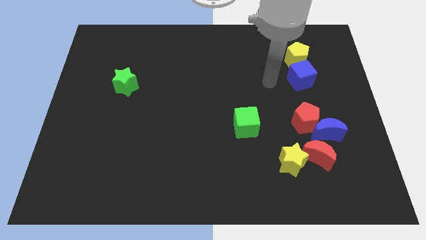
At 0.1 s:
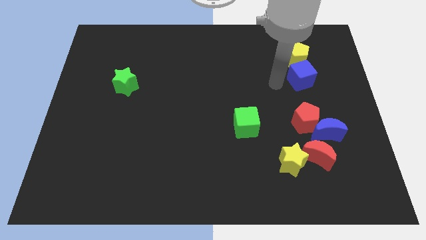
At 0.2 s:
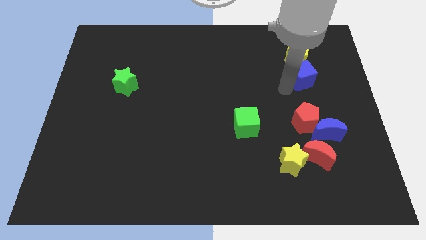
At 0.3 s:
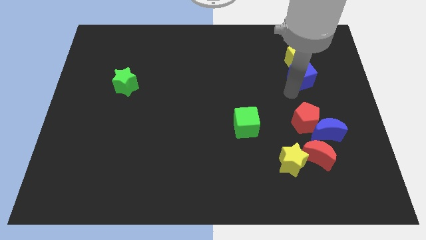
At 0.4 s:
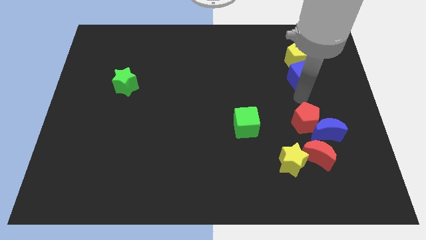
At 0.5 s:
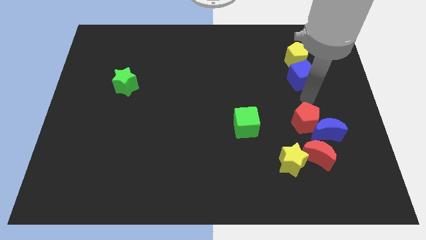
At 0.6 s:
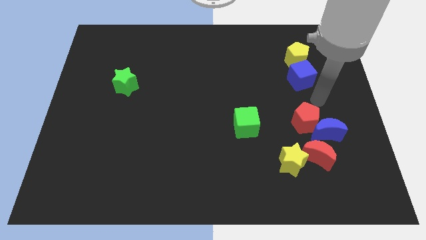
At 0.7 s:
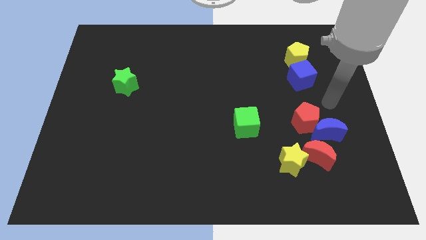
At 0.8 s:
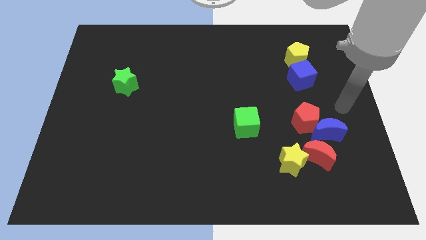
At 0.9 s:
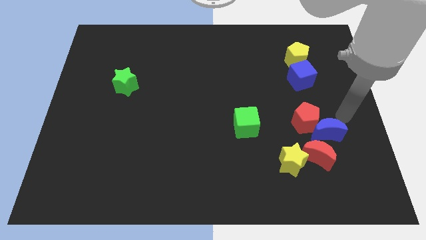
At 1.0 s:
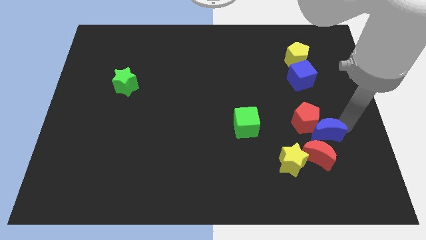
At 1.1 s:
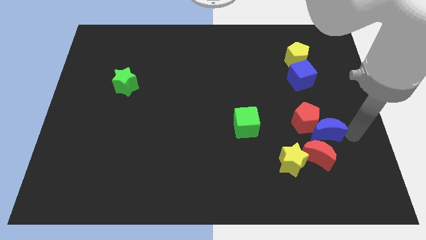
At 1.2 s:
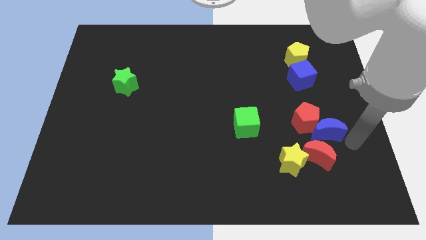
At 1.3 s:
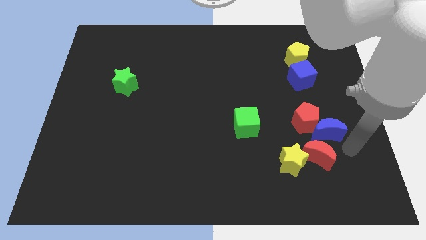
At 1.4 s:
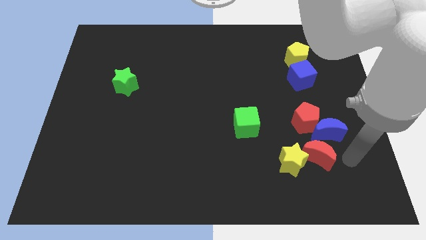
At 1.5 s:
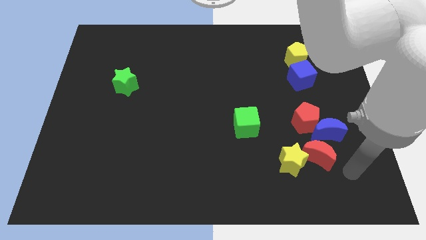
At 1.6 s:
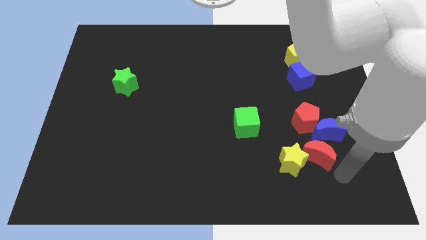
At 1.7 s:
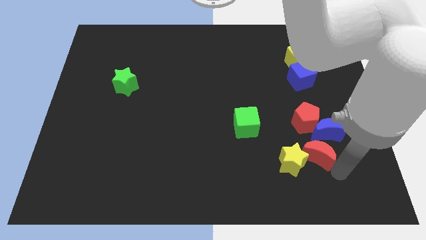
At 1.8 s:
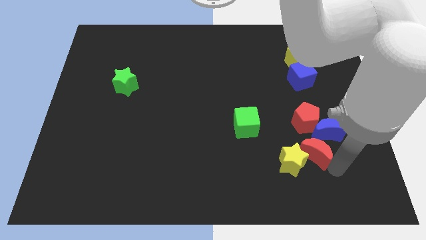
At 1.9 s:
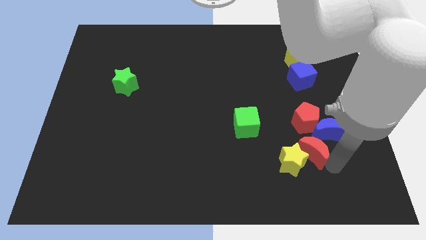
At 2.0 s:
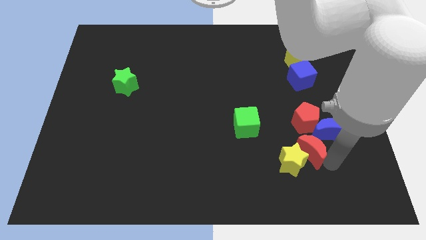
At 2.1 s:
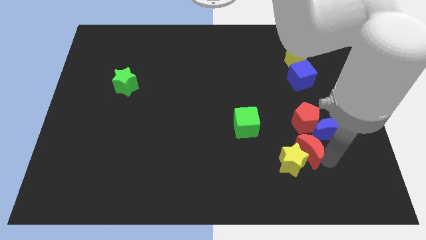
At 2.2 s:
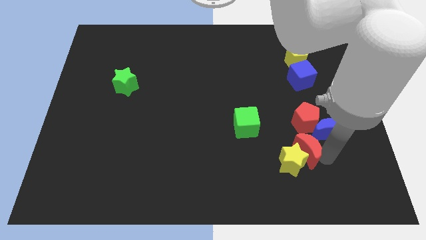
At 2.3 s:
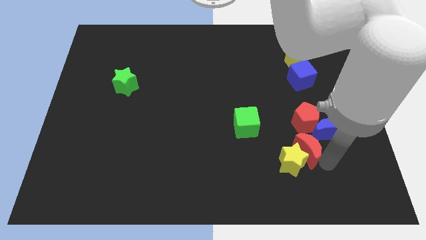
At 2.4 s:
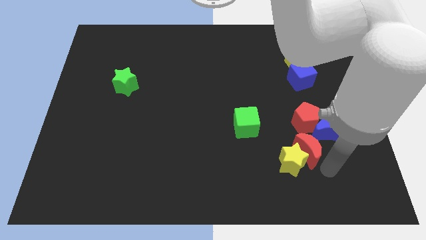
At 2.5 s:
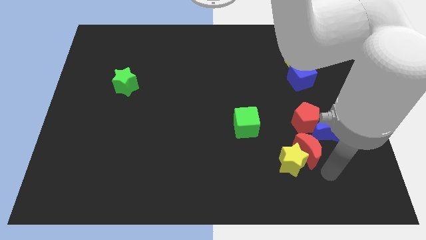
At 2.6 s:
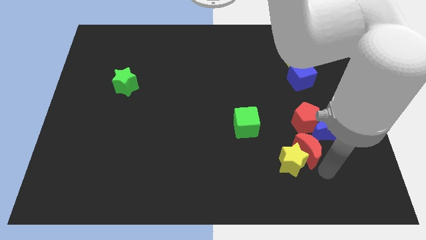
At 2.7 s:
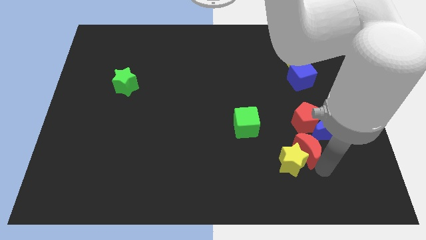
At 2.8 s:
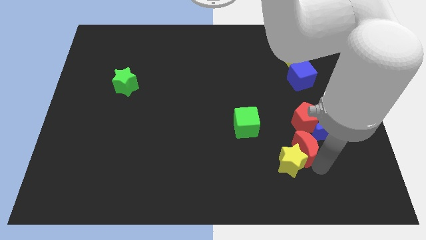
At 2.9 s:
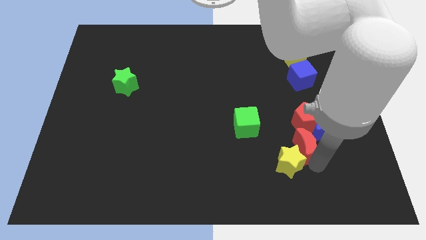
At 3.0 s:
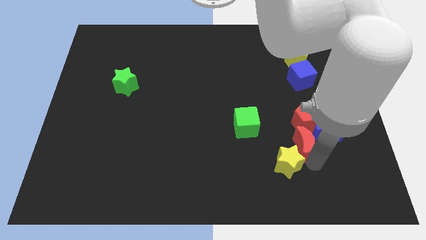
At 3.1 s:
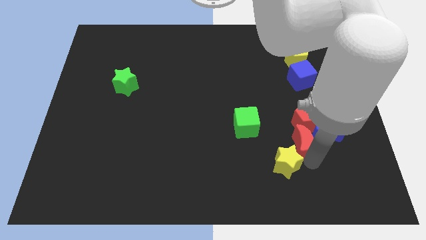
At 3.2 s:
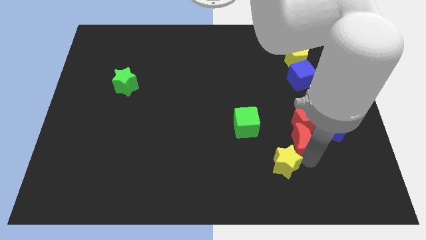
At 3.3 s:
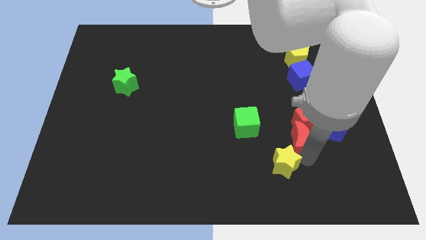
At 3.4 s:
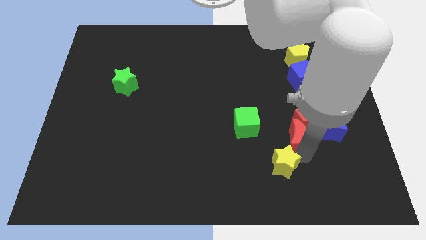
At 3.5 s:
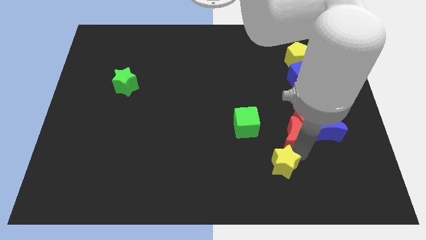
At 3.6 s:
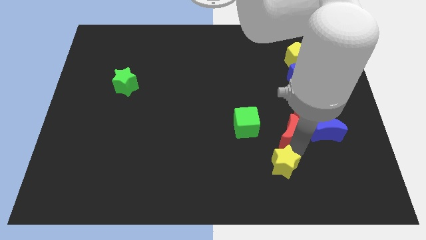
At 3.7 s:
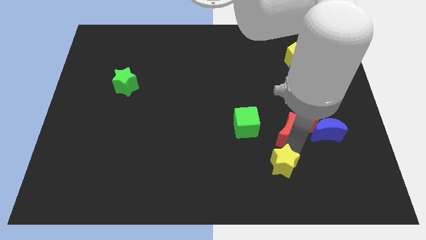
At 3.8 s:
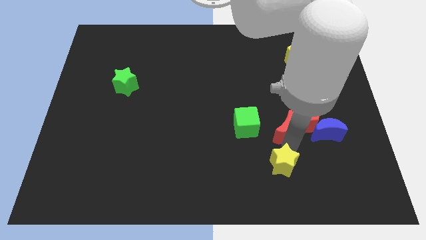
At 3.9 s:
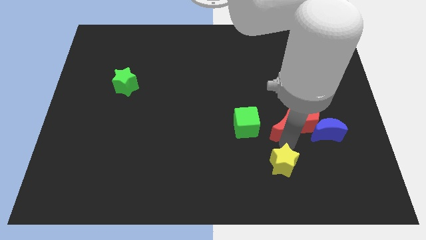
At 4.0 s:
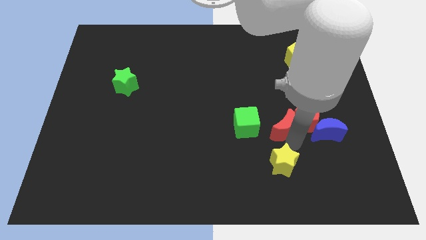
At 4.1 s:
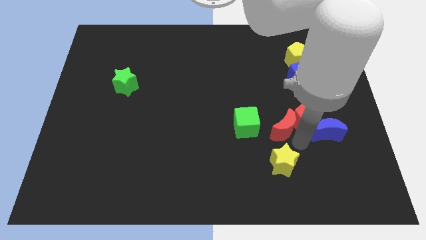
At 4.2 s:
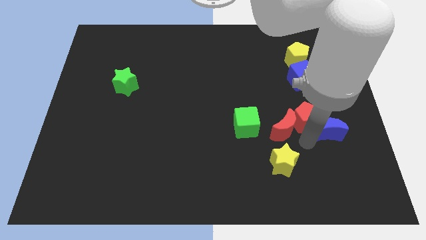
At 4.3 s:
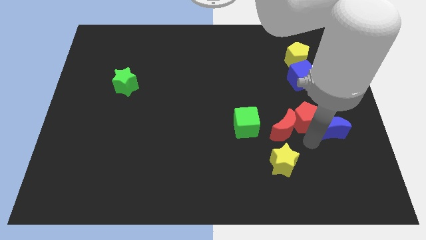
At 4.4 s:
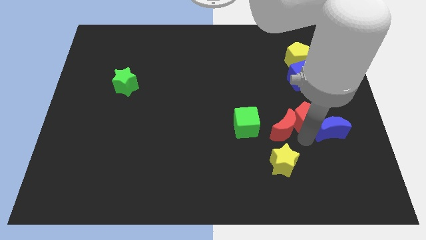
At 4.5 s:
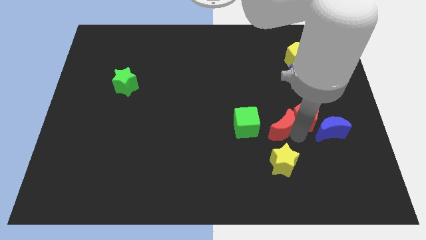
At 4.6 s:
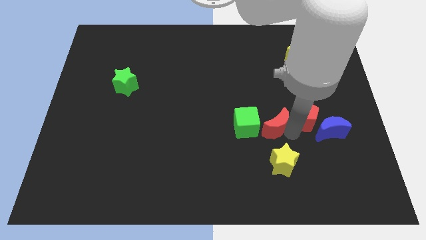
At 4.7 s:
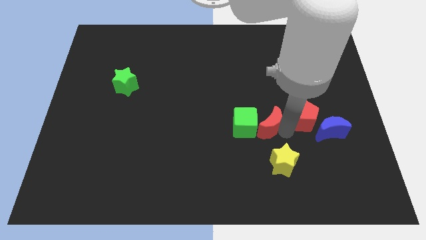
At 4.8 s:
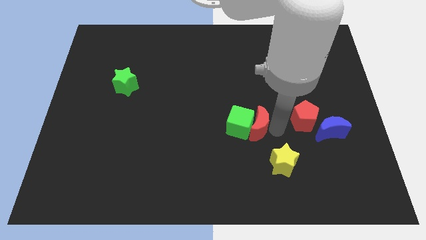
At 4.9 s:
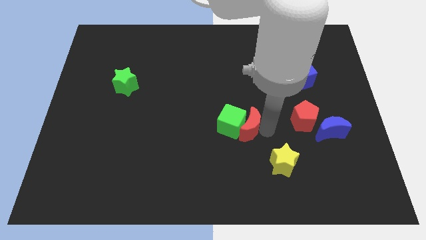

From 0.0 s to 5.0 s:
put the red moon to the middle of the board

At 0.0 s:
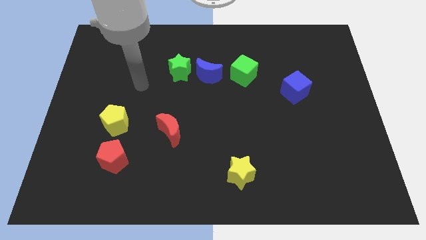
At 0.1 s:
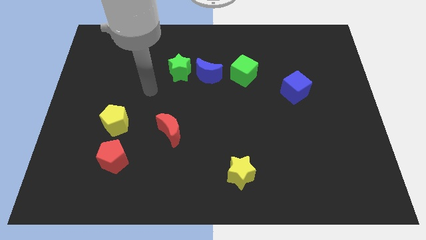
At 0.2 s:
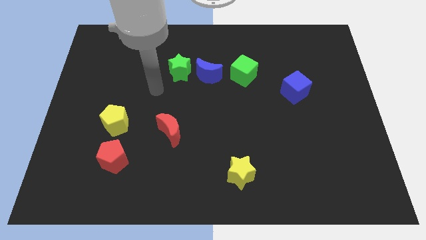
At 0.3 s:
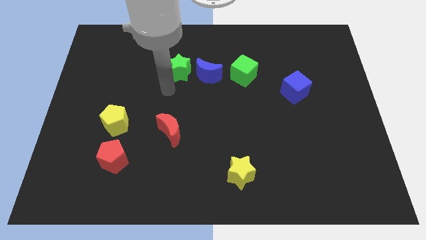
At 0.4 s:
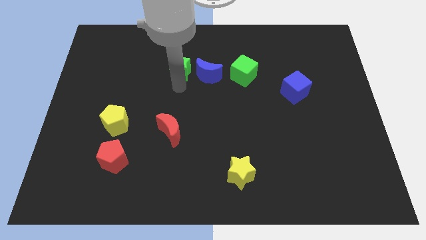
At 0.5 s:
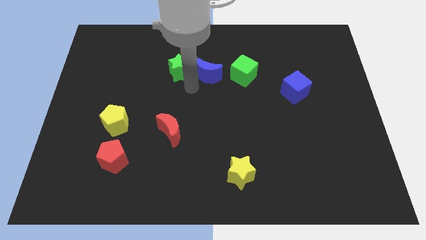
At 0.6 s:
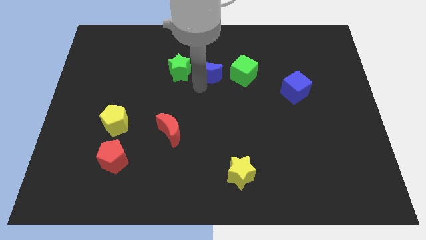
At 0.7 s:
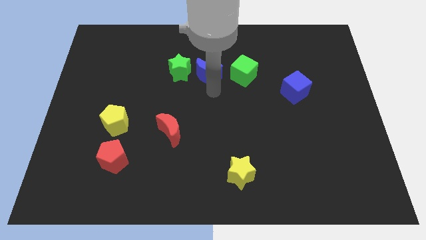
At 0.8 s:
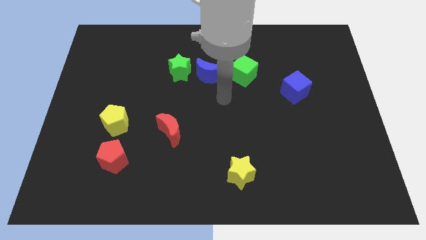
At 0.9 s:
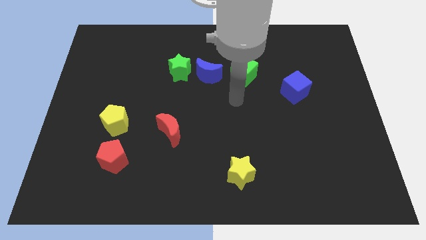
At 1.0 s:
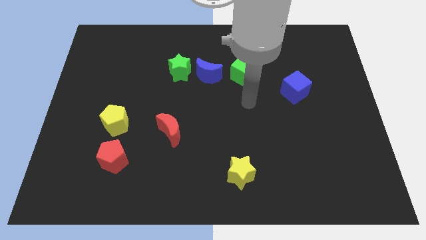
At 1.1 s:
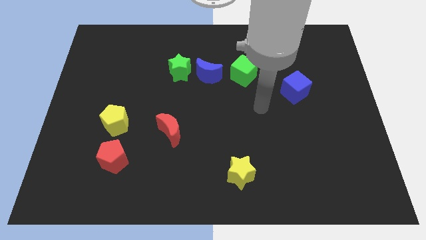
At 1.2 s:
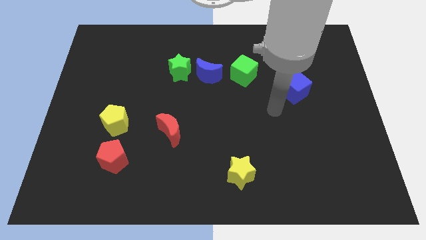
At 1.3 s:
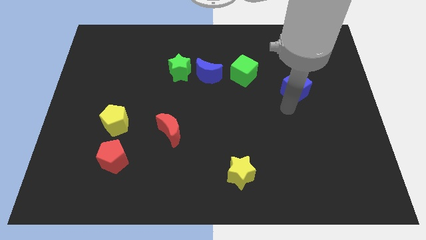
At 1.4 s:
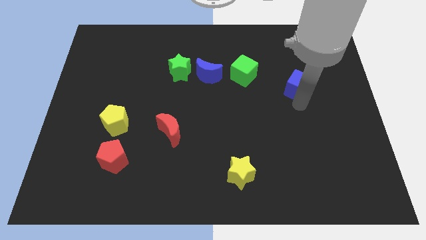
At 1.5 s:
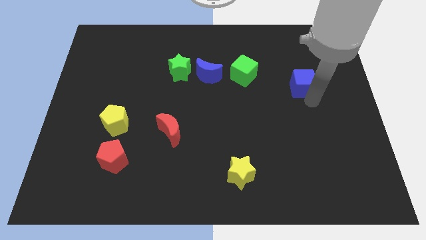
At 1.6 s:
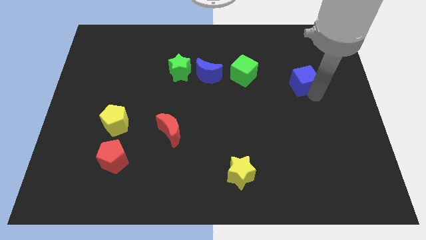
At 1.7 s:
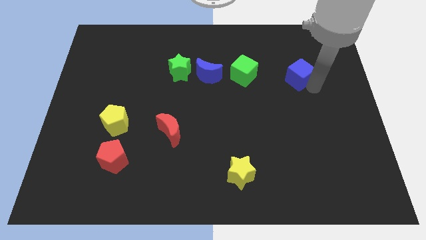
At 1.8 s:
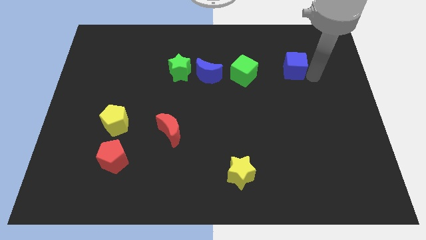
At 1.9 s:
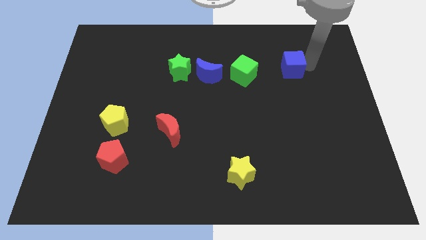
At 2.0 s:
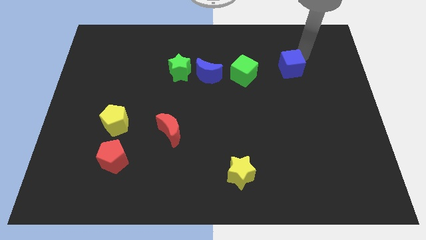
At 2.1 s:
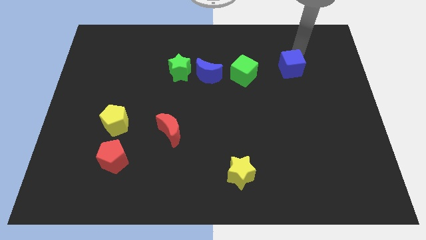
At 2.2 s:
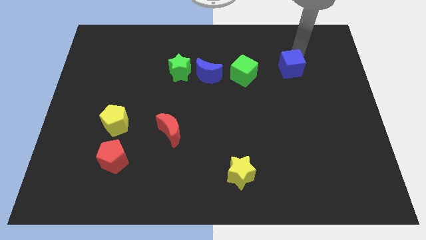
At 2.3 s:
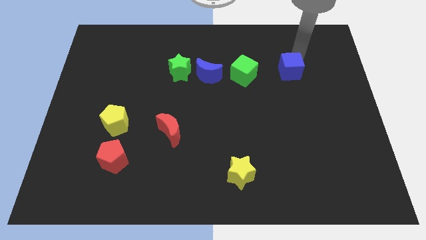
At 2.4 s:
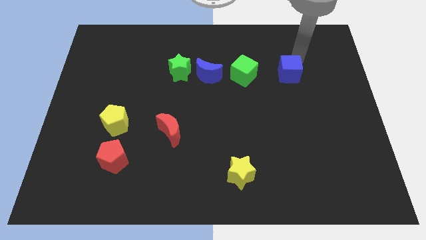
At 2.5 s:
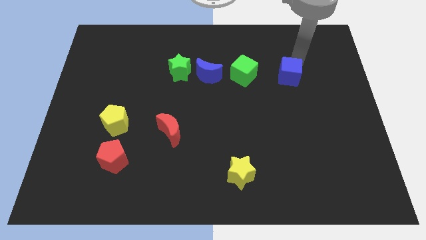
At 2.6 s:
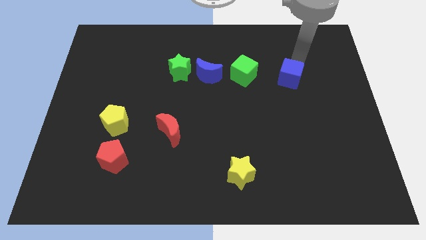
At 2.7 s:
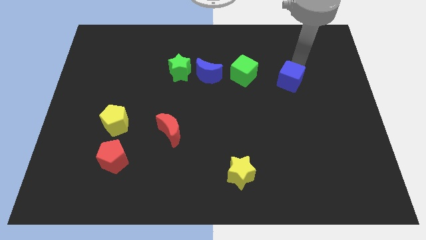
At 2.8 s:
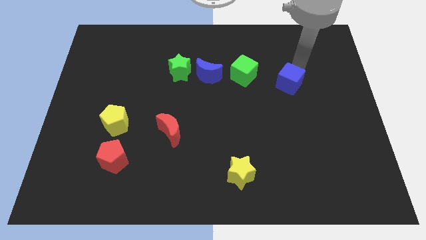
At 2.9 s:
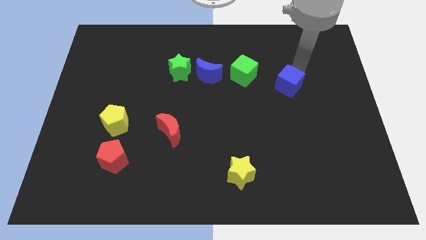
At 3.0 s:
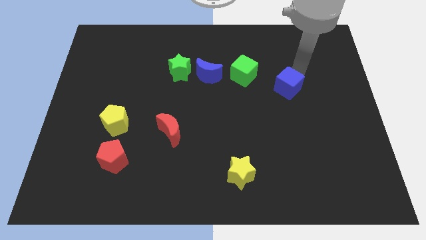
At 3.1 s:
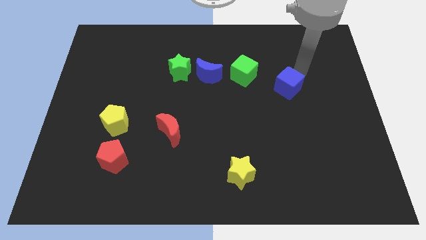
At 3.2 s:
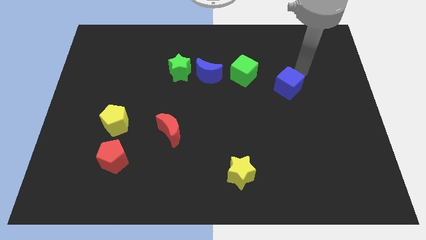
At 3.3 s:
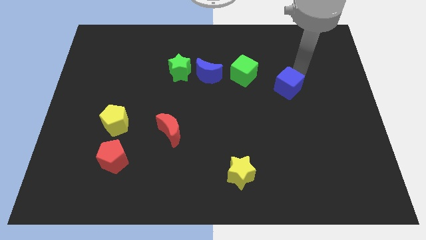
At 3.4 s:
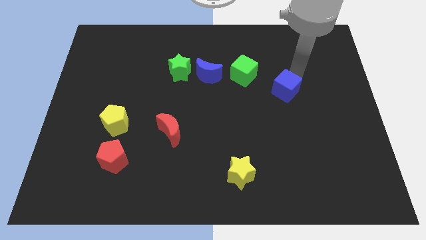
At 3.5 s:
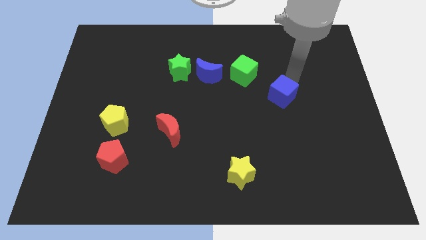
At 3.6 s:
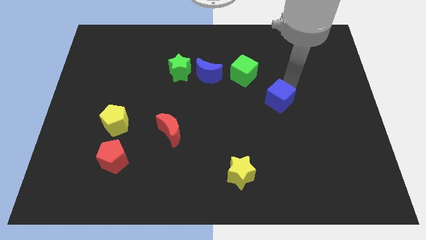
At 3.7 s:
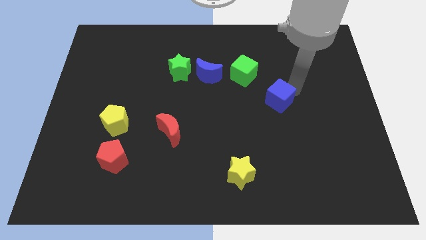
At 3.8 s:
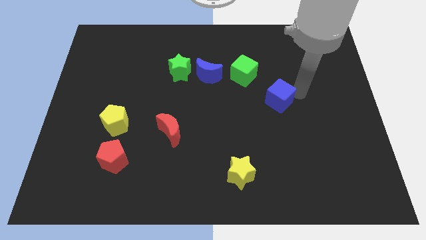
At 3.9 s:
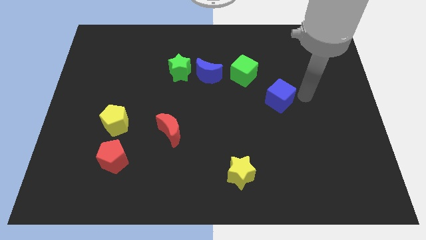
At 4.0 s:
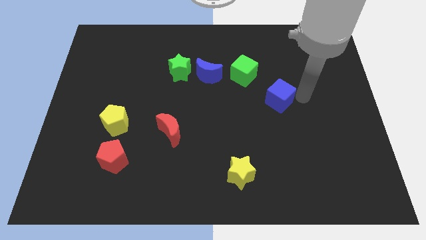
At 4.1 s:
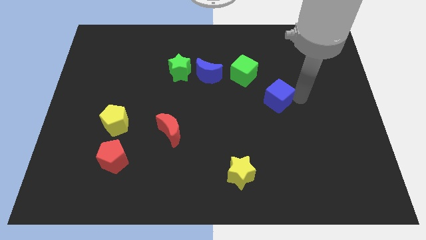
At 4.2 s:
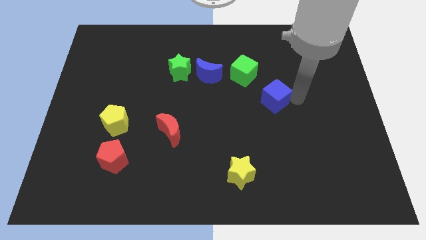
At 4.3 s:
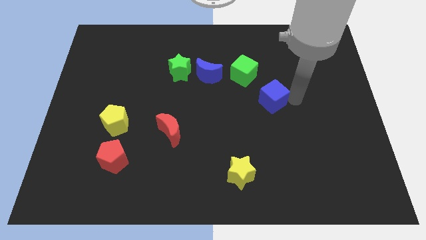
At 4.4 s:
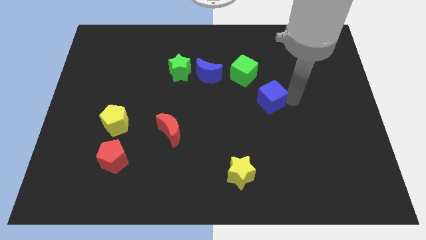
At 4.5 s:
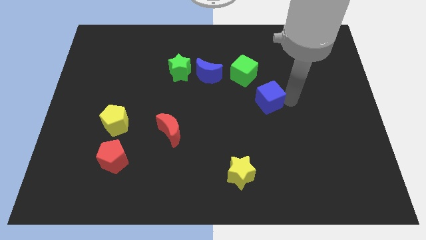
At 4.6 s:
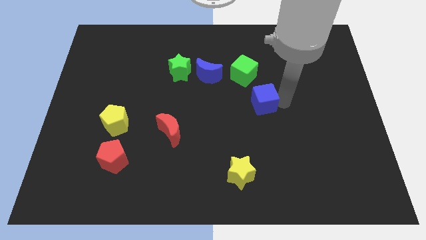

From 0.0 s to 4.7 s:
push the blue cube to the middle
